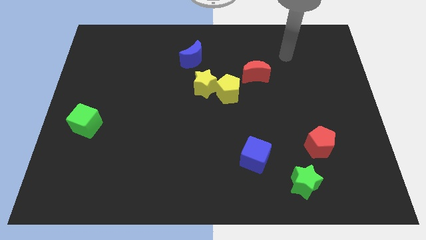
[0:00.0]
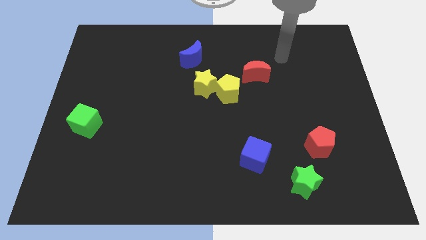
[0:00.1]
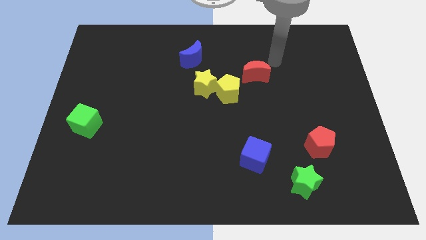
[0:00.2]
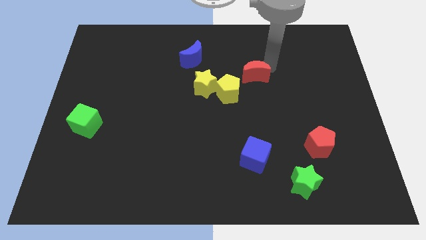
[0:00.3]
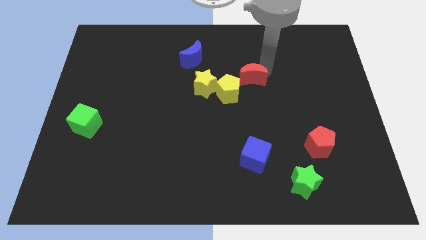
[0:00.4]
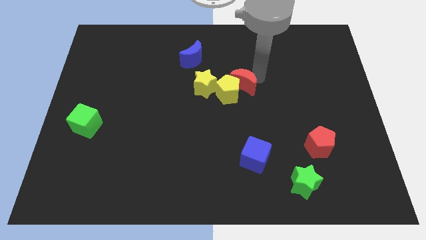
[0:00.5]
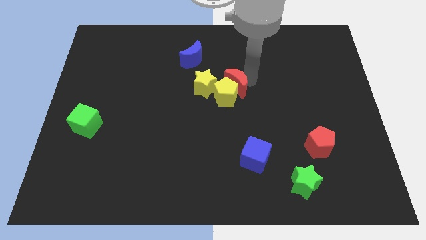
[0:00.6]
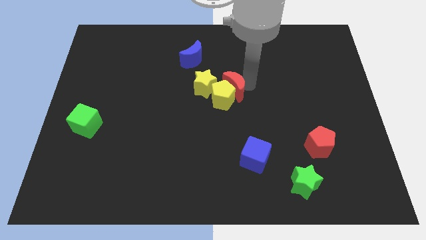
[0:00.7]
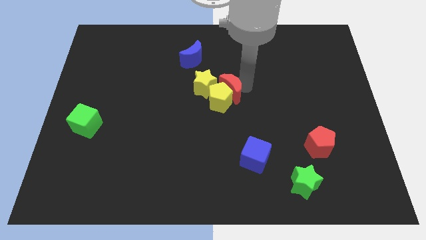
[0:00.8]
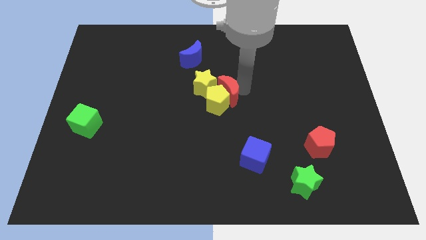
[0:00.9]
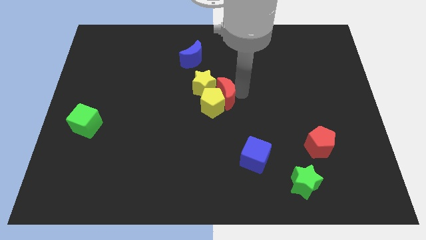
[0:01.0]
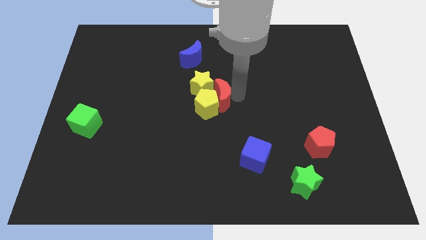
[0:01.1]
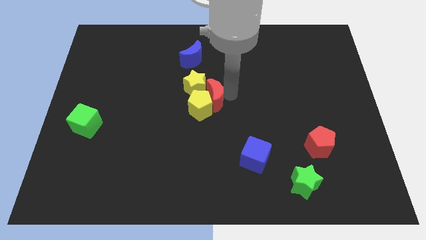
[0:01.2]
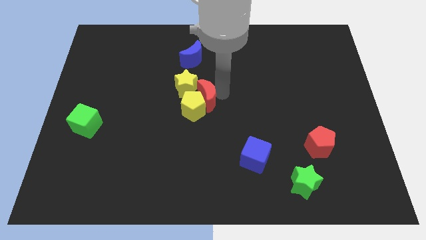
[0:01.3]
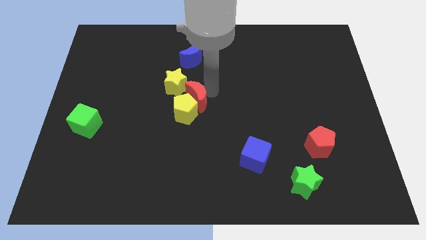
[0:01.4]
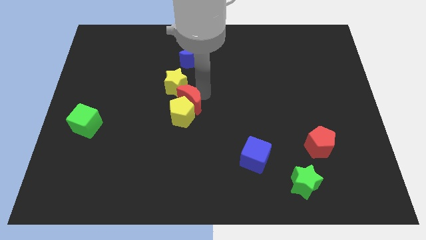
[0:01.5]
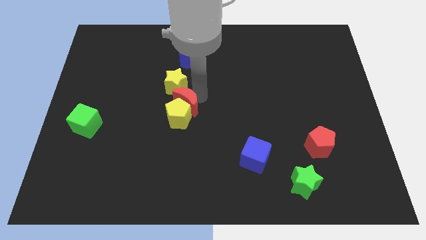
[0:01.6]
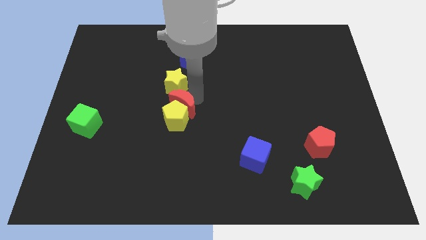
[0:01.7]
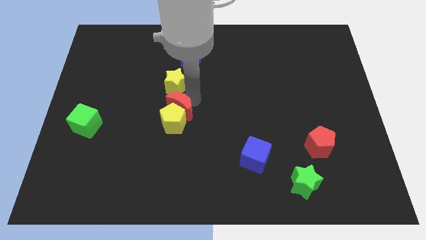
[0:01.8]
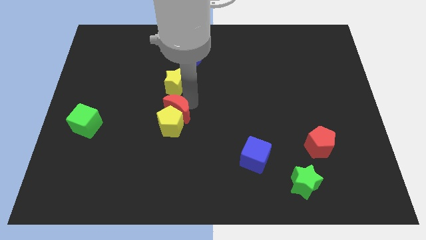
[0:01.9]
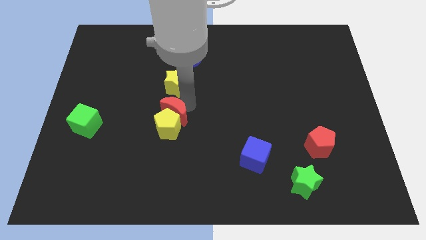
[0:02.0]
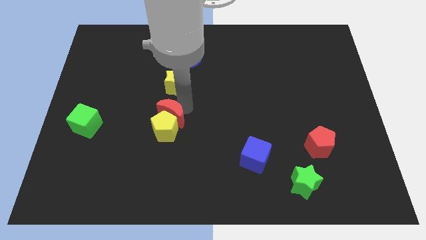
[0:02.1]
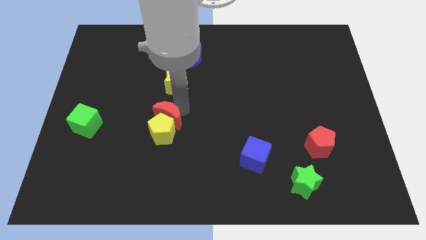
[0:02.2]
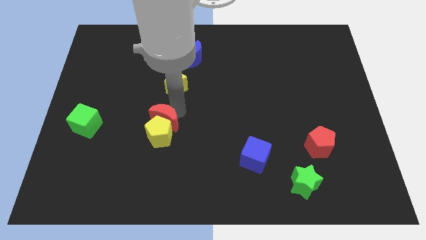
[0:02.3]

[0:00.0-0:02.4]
slide the yellow pentagon diagonally down and left

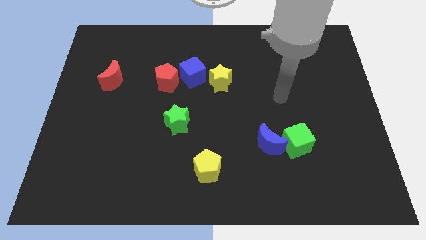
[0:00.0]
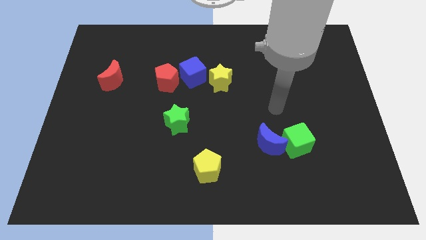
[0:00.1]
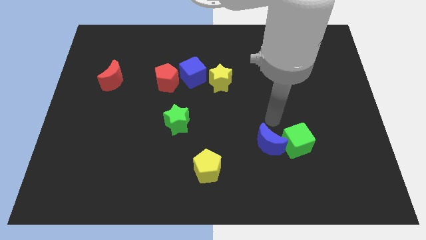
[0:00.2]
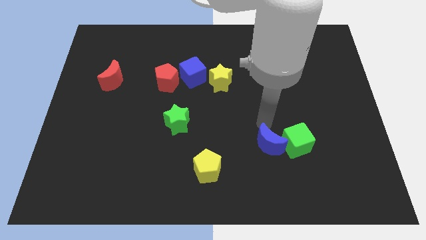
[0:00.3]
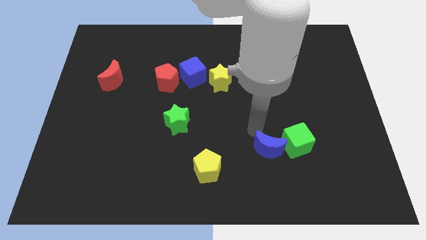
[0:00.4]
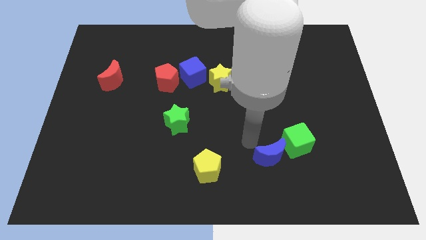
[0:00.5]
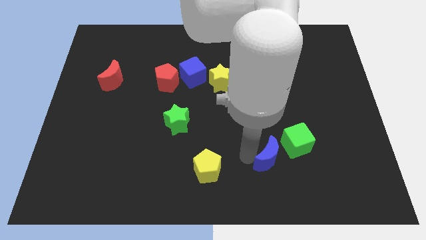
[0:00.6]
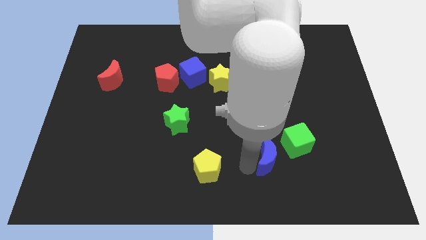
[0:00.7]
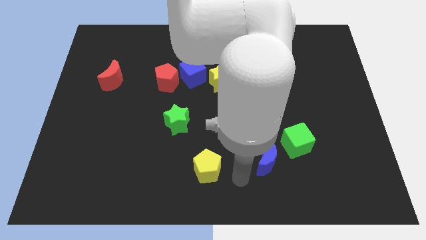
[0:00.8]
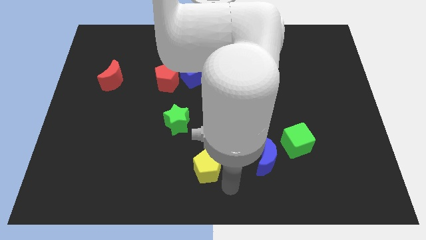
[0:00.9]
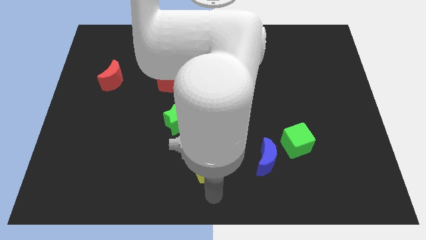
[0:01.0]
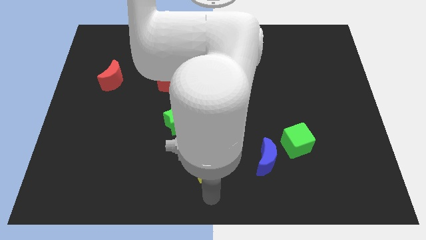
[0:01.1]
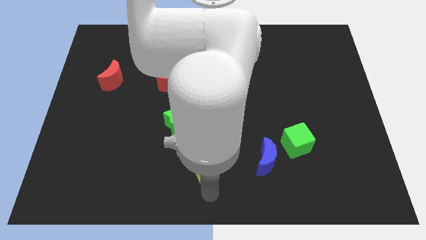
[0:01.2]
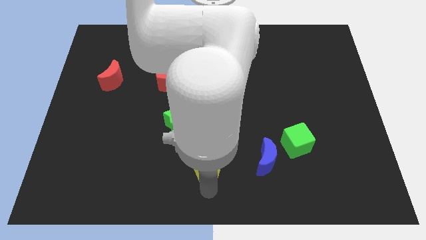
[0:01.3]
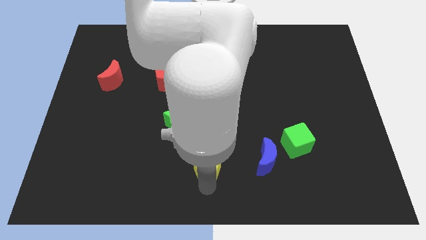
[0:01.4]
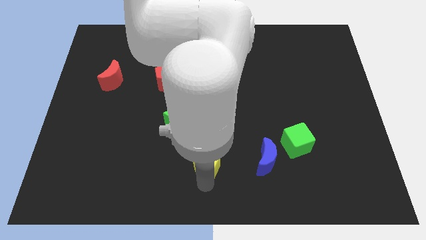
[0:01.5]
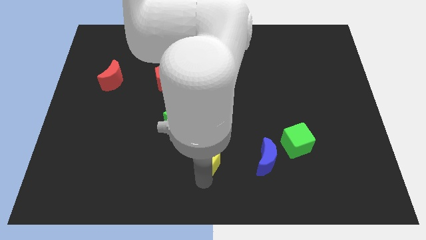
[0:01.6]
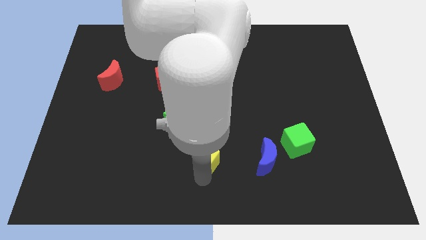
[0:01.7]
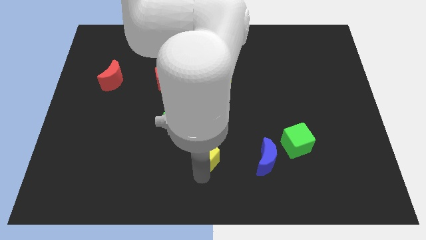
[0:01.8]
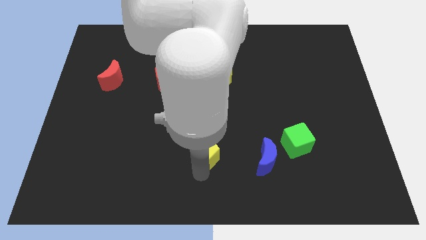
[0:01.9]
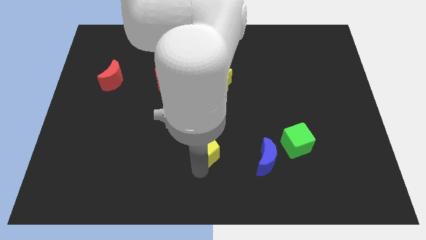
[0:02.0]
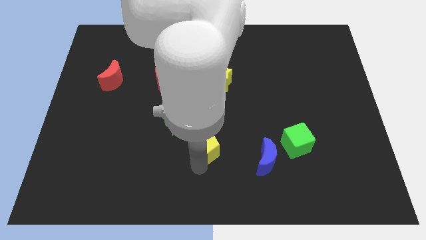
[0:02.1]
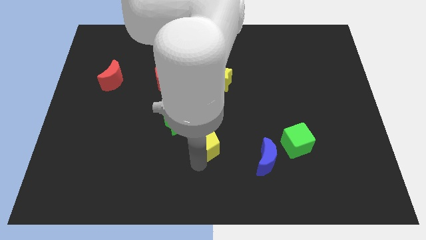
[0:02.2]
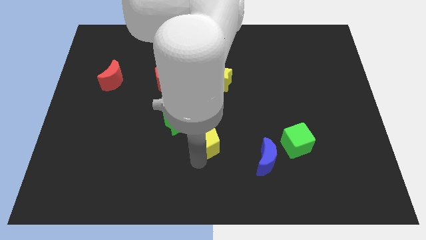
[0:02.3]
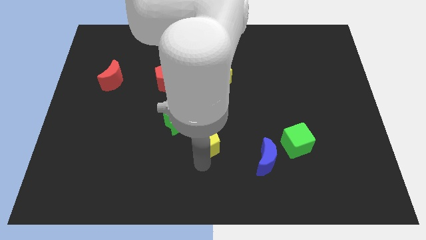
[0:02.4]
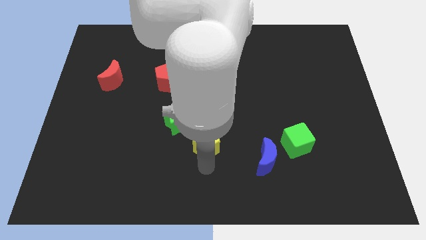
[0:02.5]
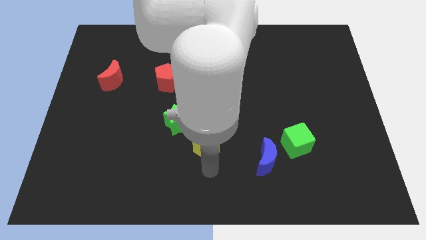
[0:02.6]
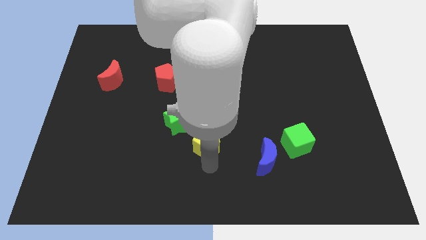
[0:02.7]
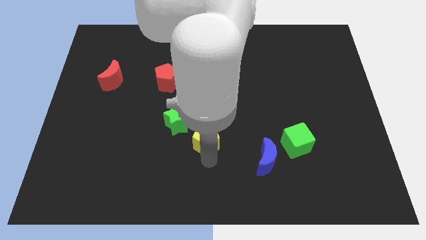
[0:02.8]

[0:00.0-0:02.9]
push the yellow pentagon upwards a little bit

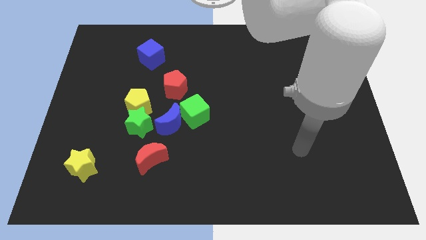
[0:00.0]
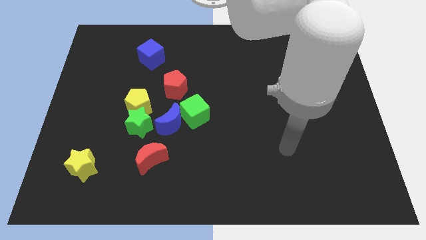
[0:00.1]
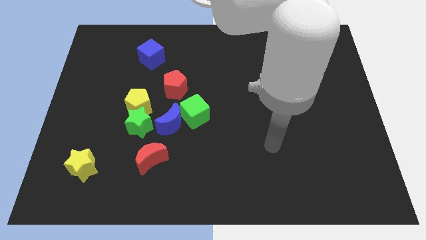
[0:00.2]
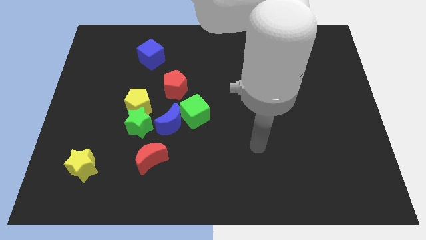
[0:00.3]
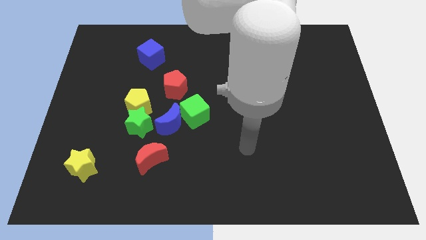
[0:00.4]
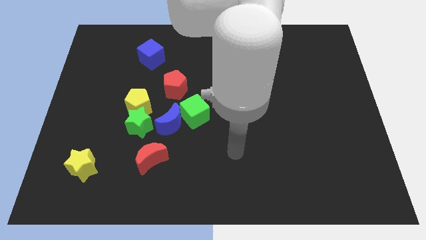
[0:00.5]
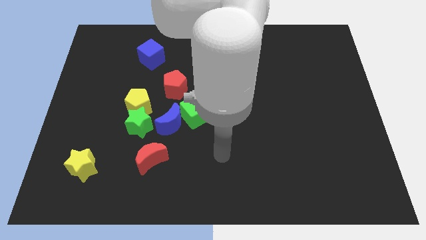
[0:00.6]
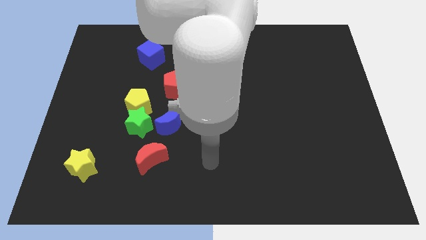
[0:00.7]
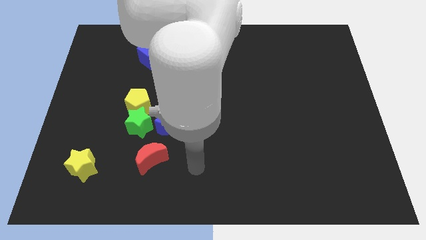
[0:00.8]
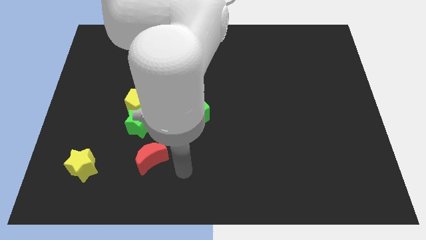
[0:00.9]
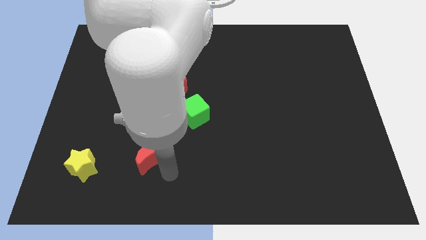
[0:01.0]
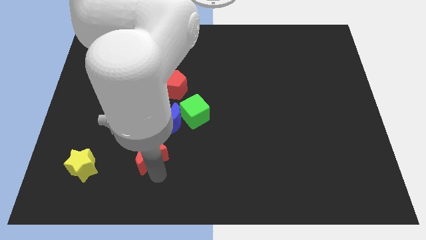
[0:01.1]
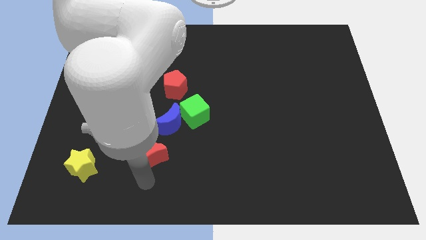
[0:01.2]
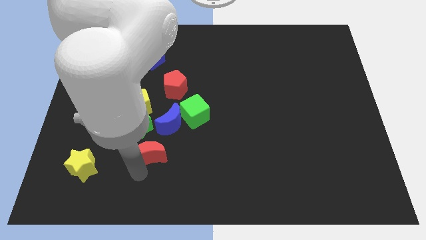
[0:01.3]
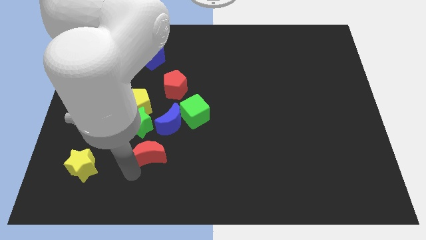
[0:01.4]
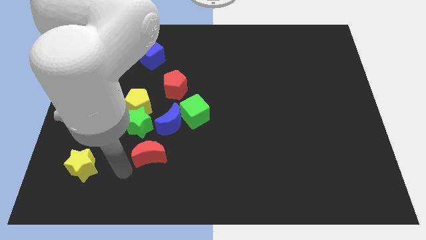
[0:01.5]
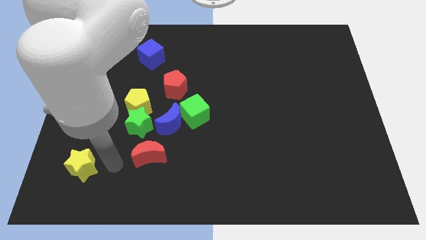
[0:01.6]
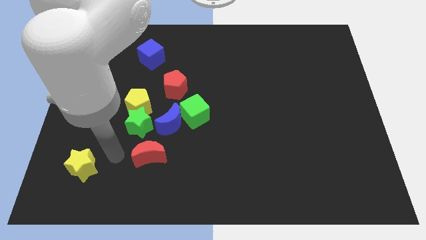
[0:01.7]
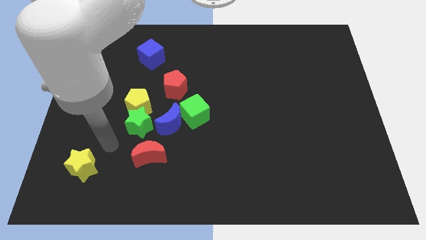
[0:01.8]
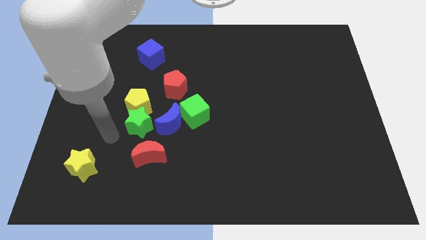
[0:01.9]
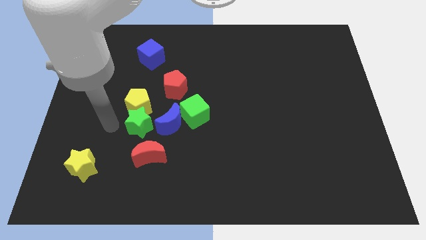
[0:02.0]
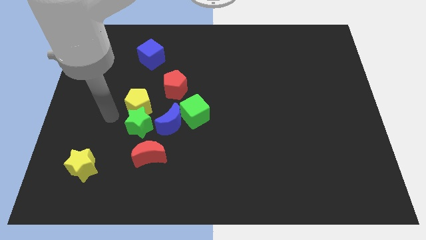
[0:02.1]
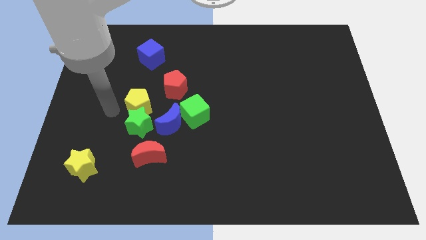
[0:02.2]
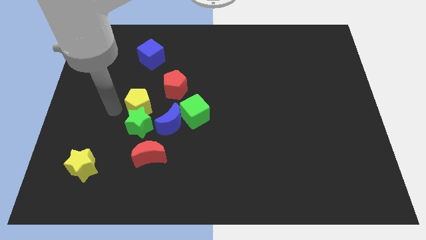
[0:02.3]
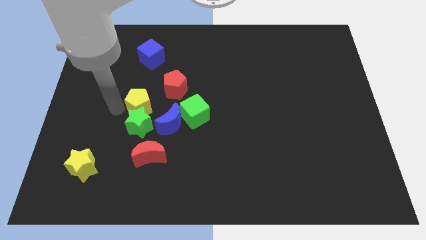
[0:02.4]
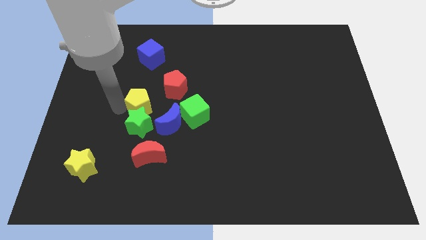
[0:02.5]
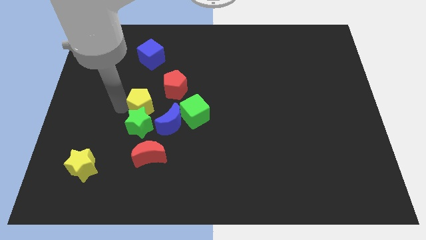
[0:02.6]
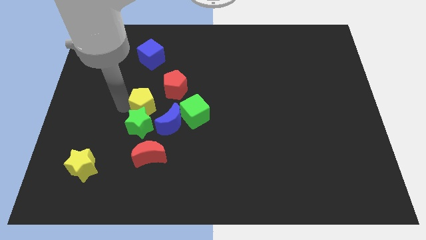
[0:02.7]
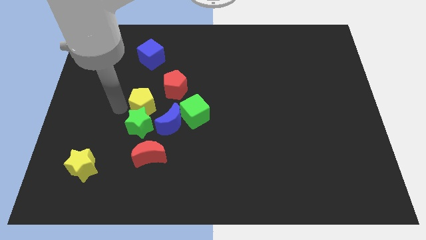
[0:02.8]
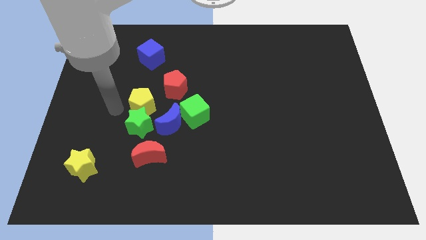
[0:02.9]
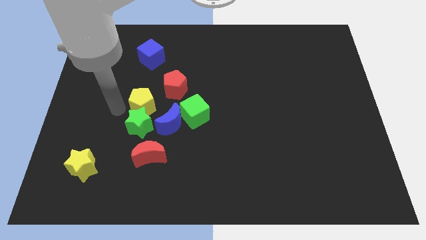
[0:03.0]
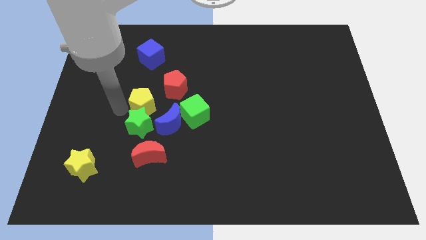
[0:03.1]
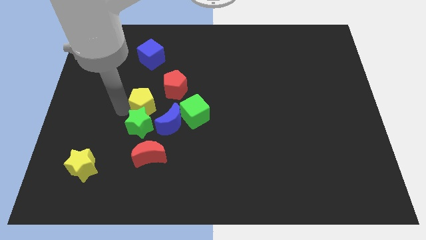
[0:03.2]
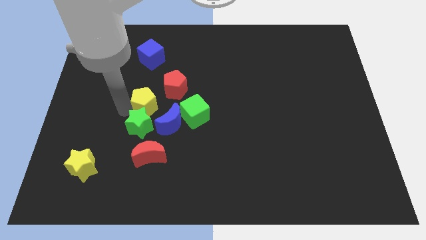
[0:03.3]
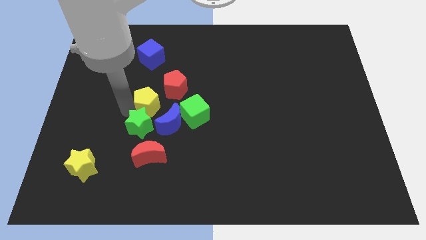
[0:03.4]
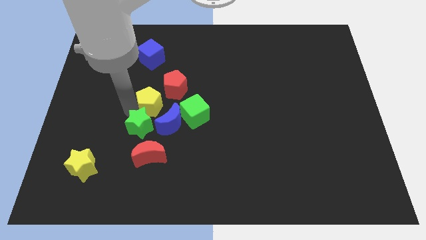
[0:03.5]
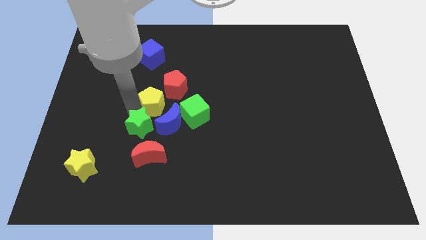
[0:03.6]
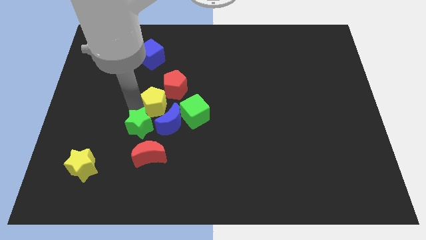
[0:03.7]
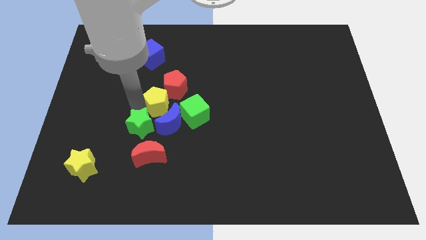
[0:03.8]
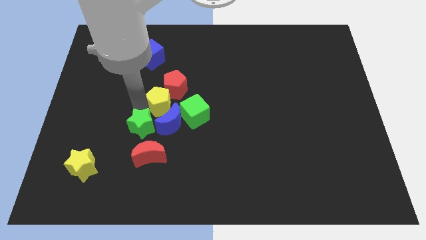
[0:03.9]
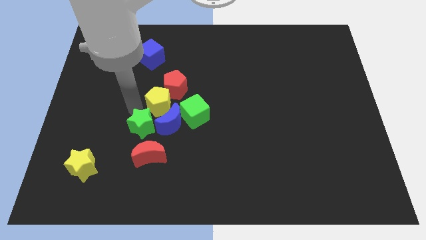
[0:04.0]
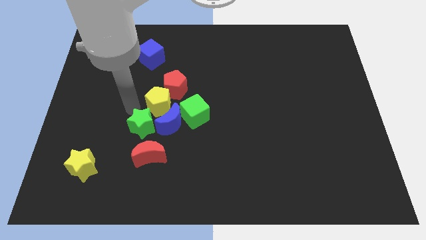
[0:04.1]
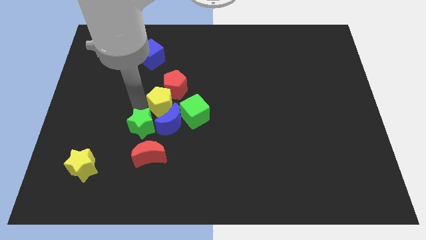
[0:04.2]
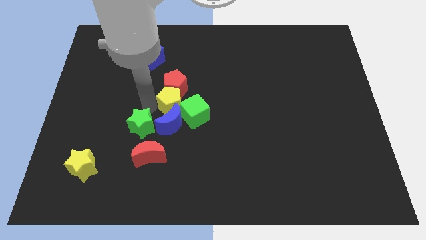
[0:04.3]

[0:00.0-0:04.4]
slide the yellow pentagon right a bit
